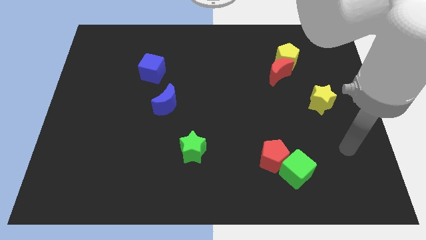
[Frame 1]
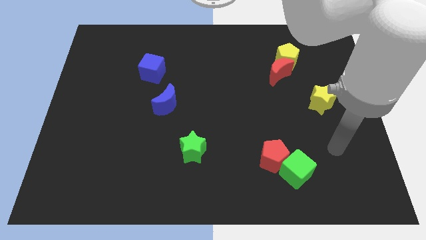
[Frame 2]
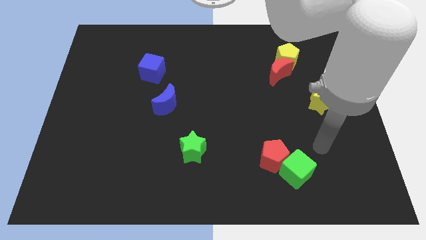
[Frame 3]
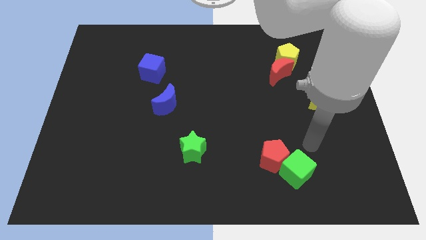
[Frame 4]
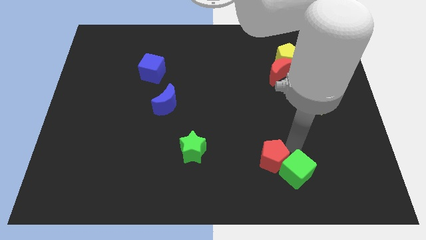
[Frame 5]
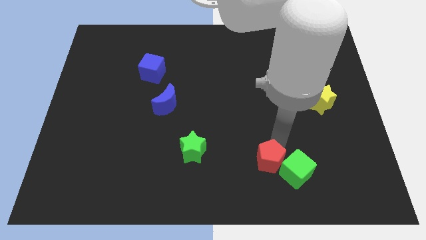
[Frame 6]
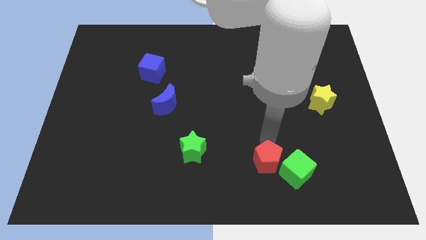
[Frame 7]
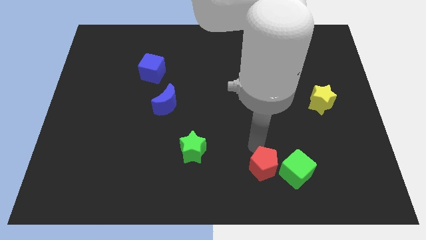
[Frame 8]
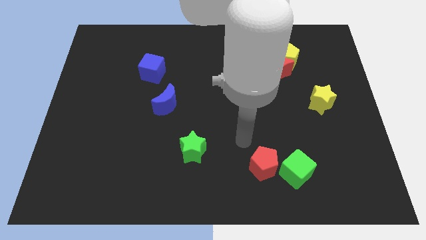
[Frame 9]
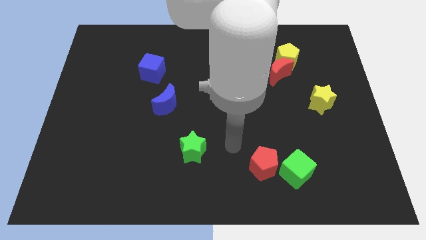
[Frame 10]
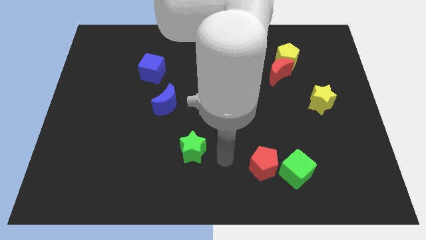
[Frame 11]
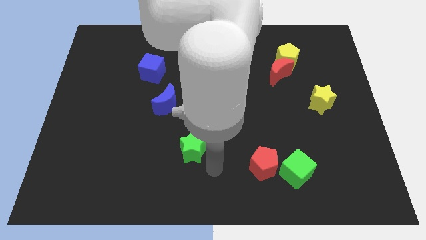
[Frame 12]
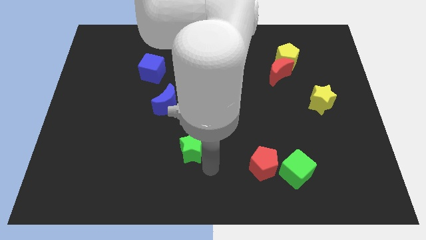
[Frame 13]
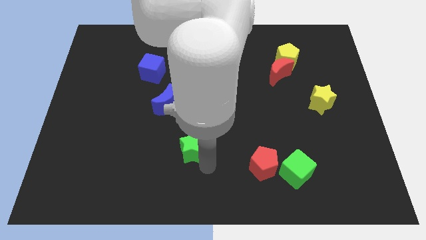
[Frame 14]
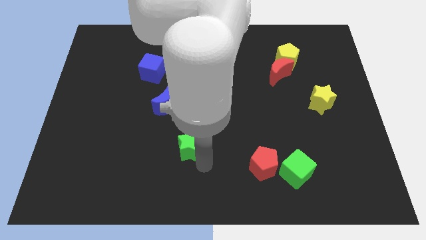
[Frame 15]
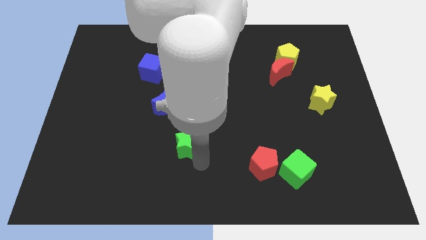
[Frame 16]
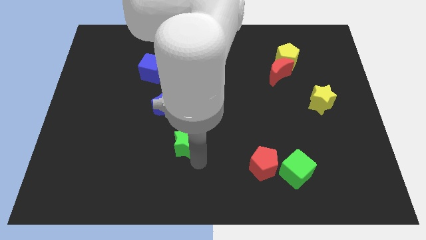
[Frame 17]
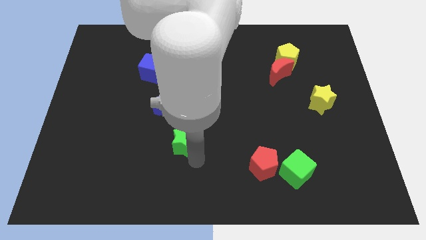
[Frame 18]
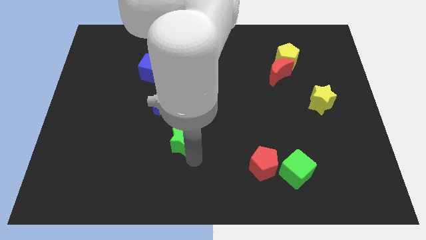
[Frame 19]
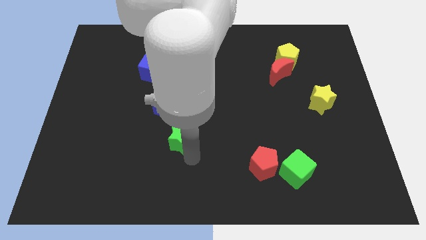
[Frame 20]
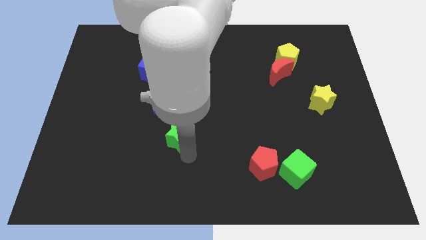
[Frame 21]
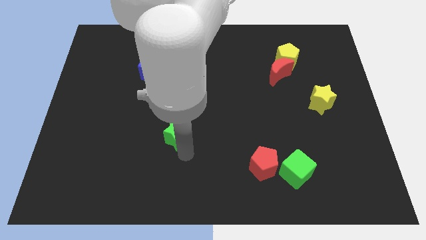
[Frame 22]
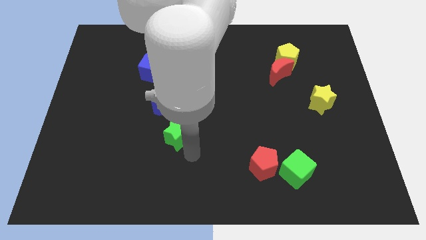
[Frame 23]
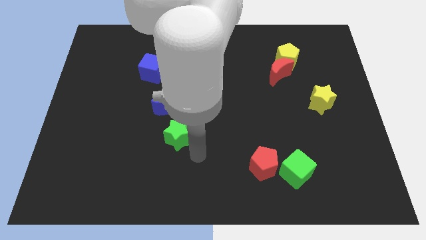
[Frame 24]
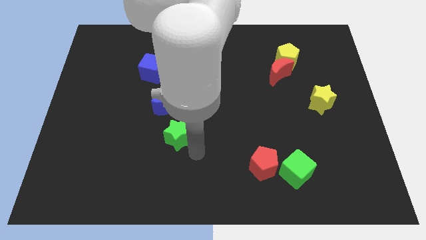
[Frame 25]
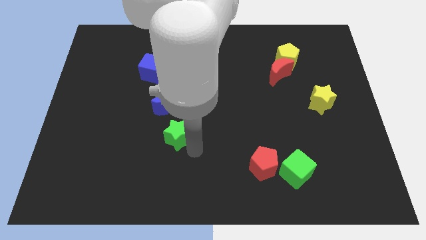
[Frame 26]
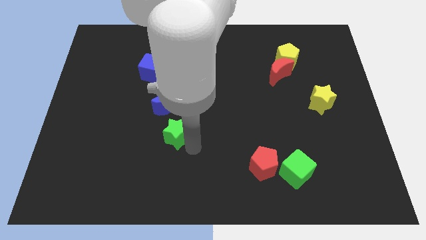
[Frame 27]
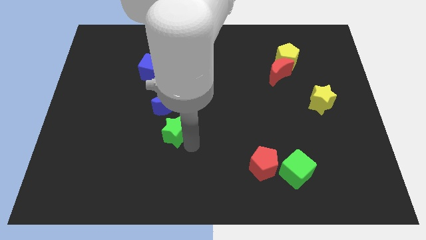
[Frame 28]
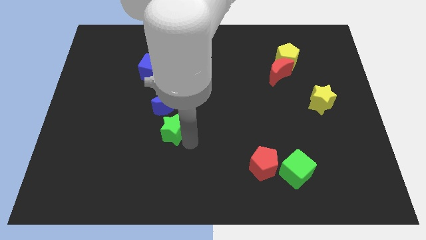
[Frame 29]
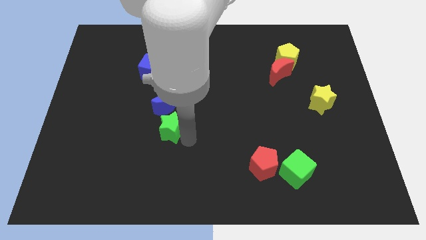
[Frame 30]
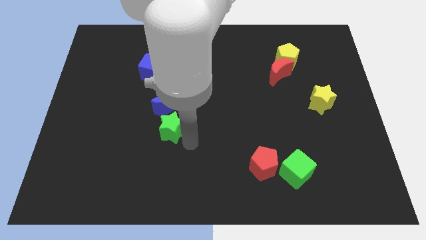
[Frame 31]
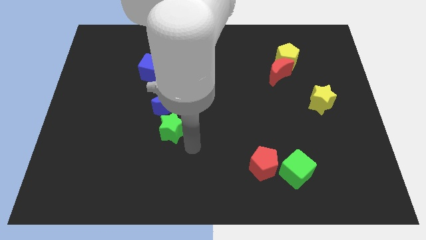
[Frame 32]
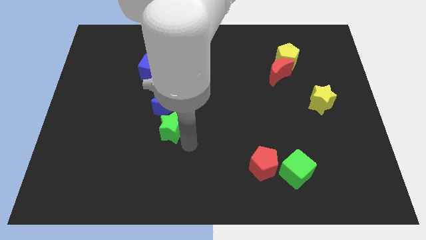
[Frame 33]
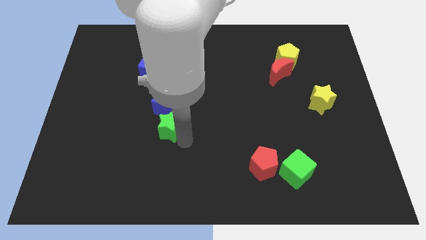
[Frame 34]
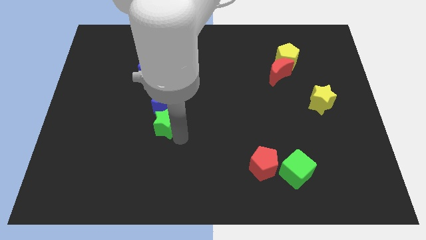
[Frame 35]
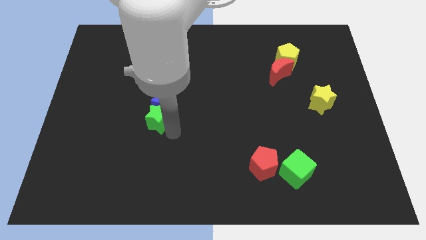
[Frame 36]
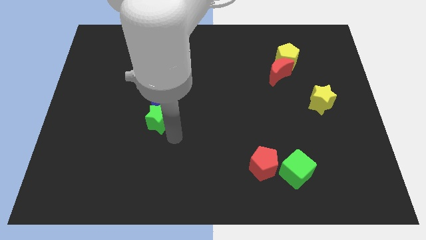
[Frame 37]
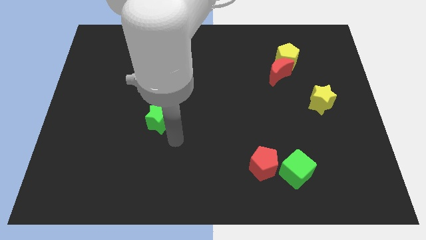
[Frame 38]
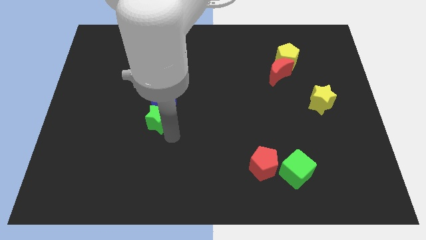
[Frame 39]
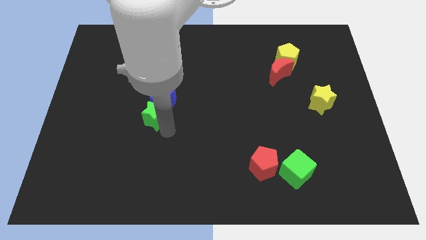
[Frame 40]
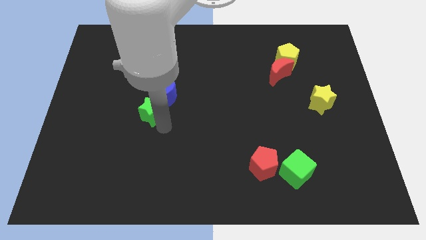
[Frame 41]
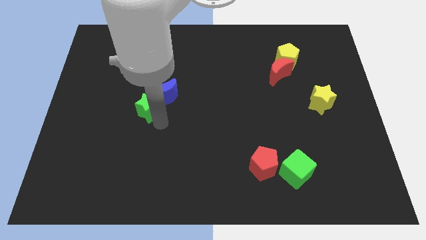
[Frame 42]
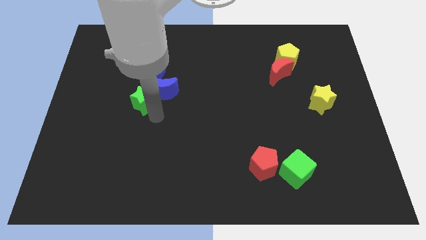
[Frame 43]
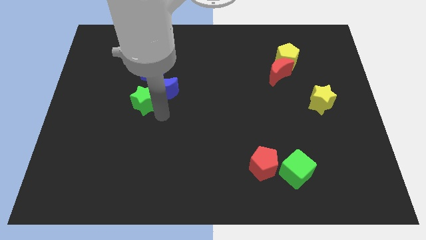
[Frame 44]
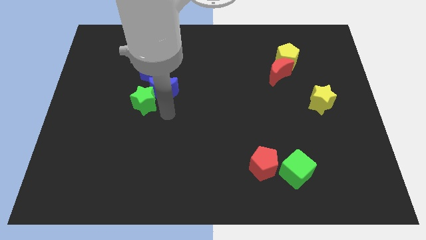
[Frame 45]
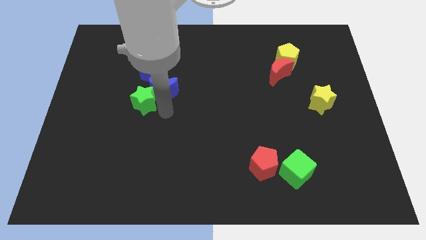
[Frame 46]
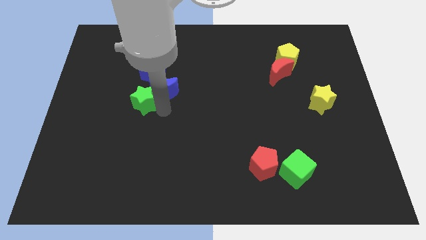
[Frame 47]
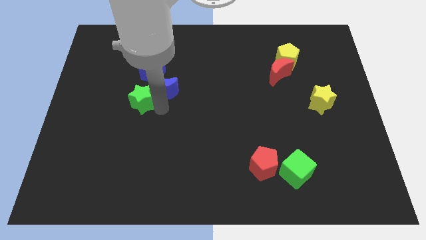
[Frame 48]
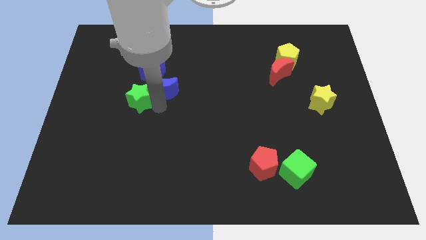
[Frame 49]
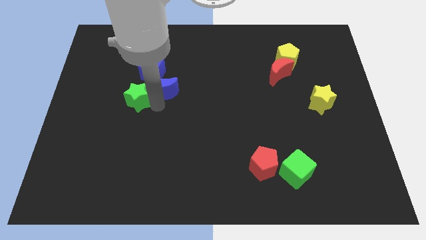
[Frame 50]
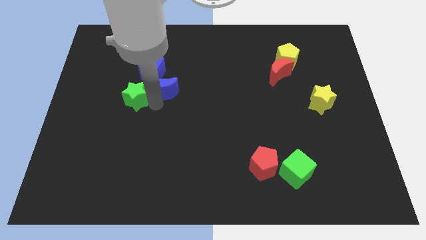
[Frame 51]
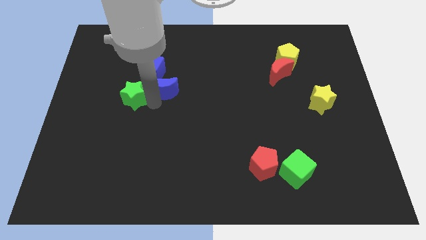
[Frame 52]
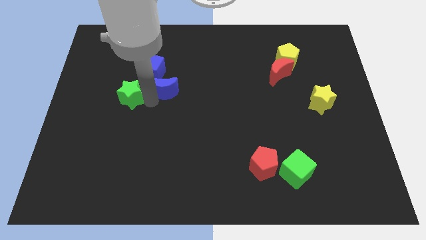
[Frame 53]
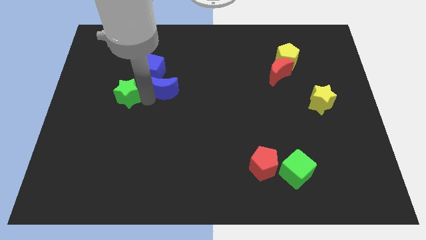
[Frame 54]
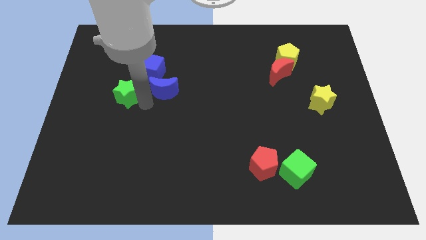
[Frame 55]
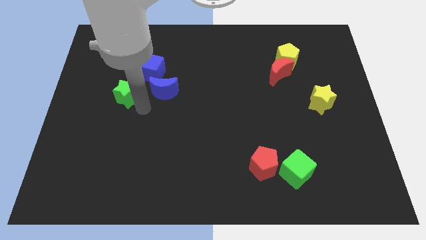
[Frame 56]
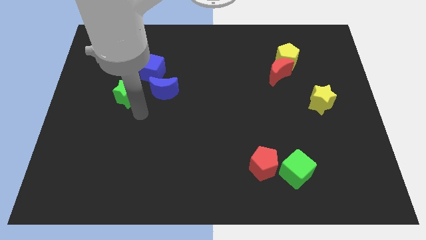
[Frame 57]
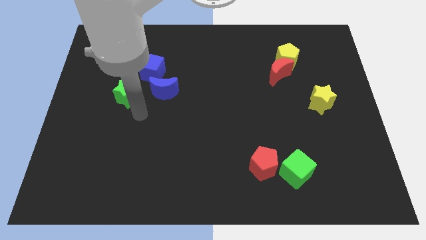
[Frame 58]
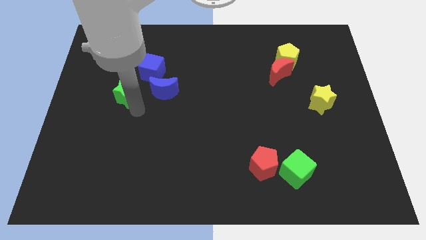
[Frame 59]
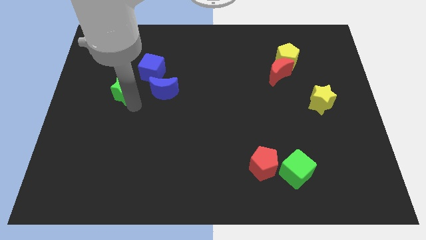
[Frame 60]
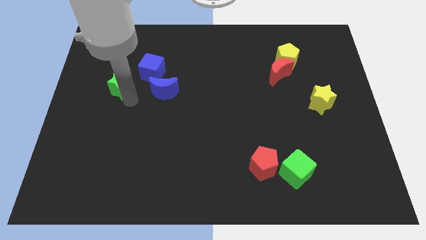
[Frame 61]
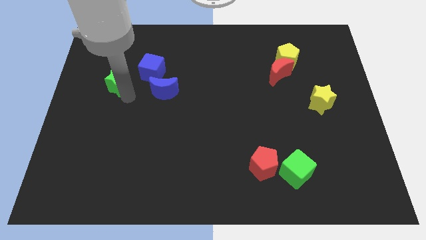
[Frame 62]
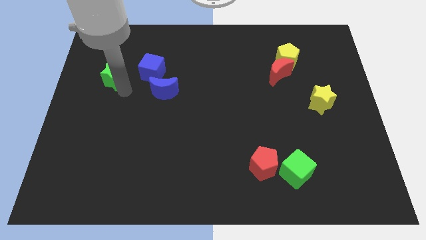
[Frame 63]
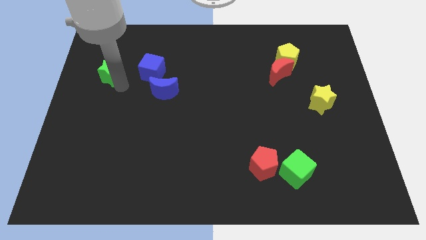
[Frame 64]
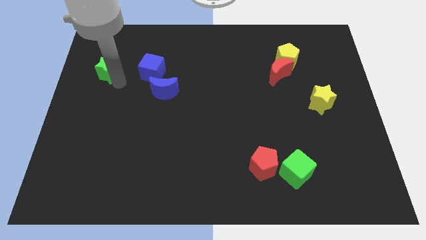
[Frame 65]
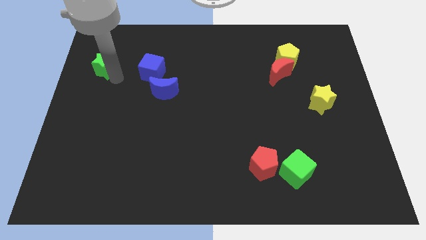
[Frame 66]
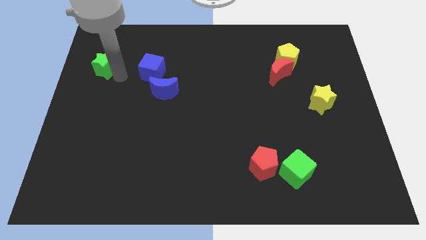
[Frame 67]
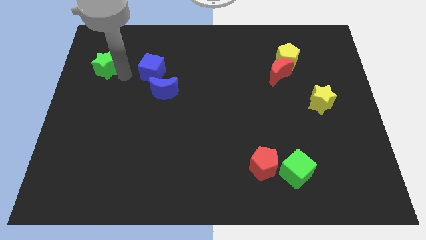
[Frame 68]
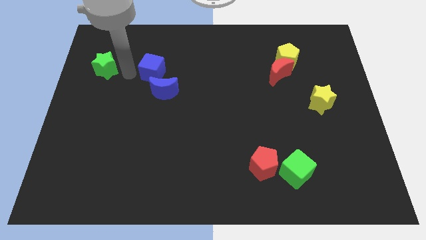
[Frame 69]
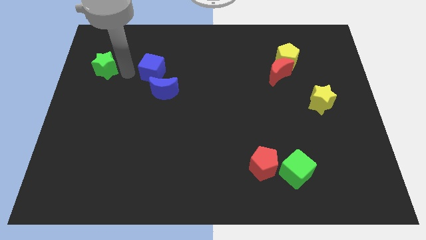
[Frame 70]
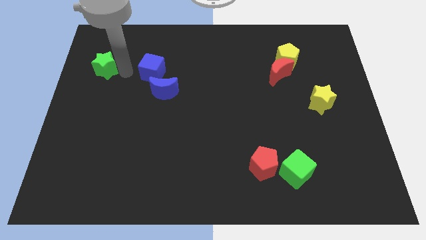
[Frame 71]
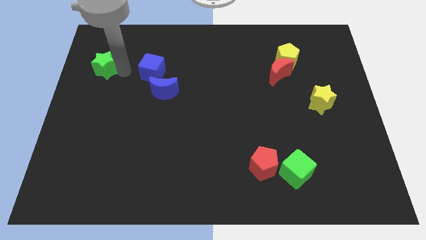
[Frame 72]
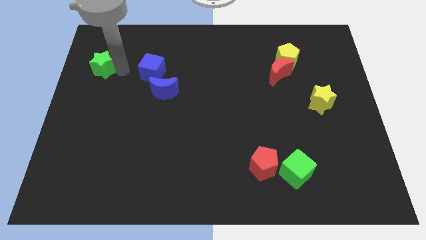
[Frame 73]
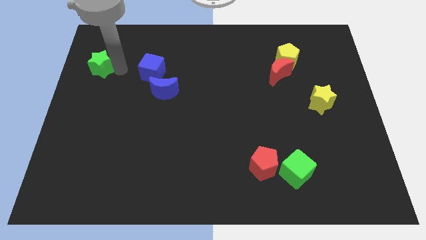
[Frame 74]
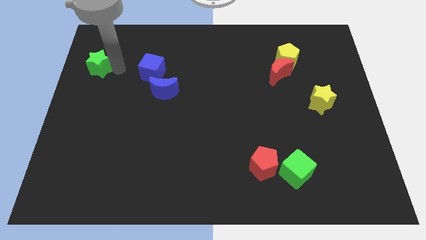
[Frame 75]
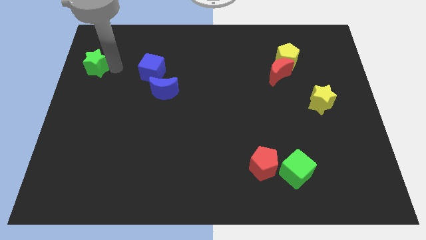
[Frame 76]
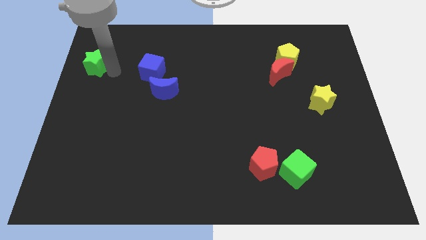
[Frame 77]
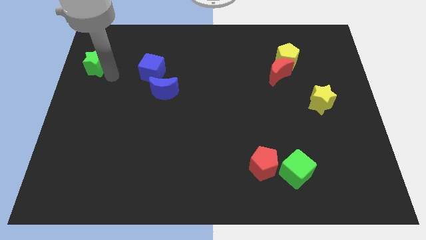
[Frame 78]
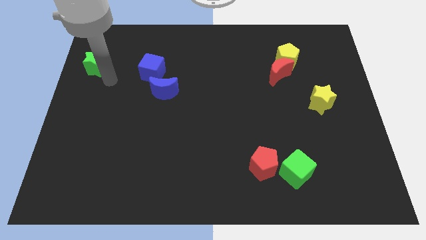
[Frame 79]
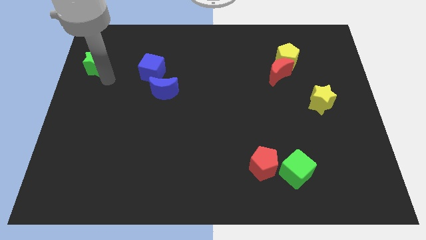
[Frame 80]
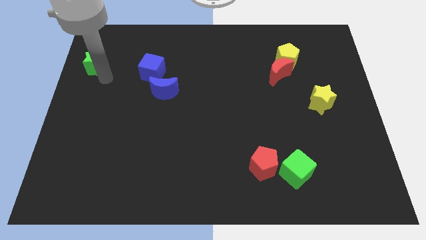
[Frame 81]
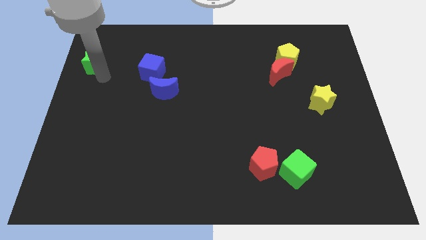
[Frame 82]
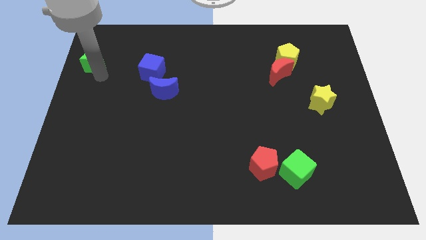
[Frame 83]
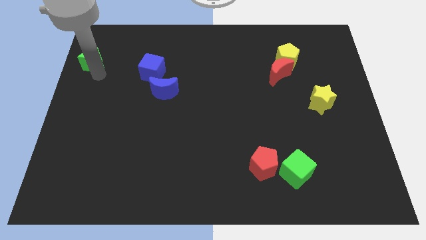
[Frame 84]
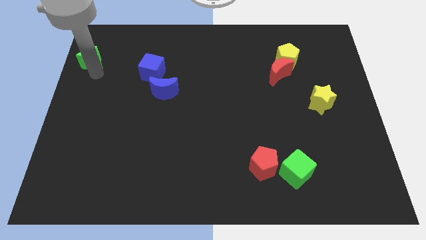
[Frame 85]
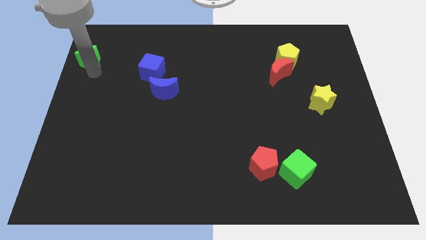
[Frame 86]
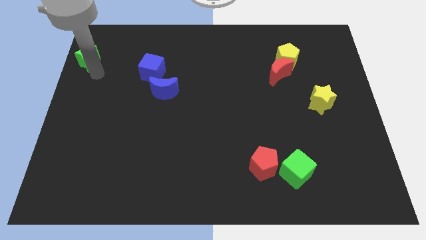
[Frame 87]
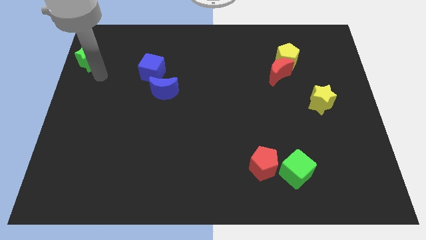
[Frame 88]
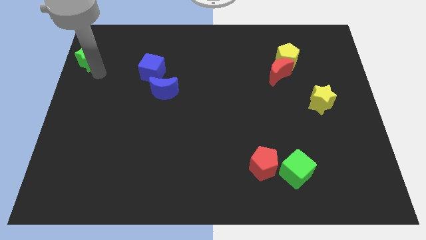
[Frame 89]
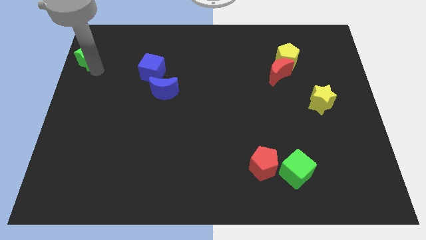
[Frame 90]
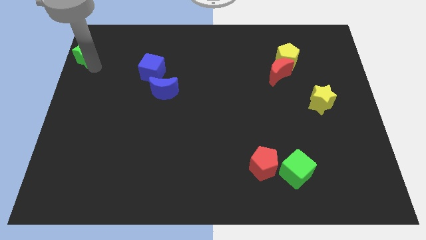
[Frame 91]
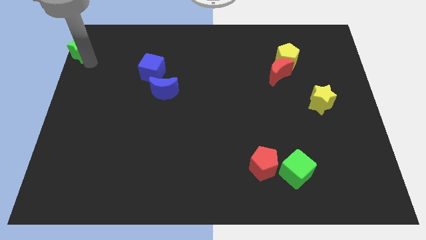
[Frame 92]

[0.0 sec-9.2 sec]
put the green star to the upper left corner
